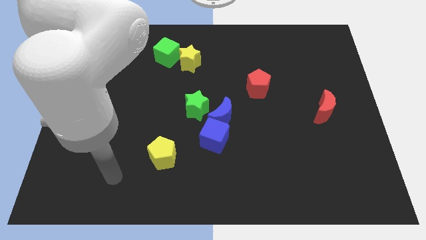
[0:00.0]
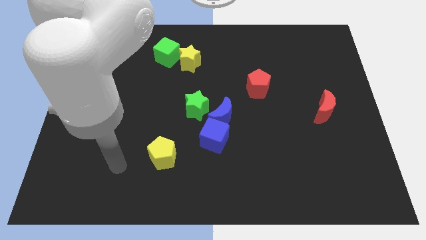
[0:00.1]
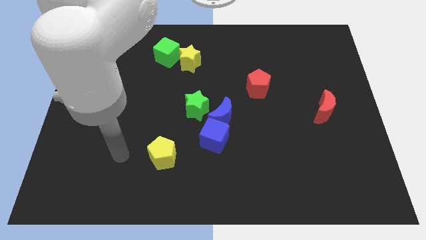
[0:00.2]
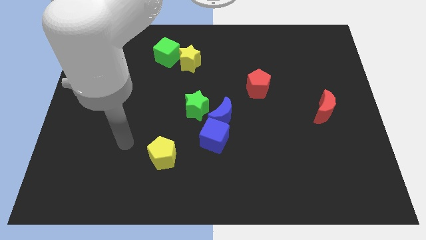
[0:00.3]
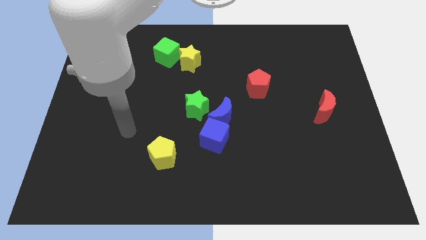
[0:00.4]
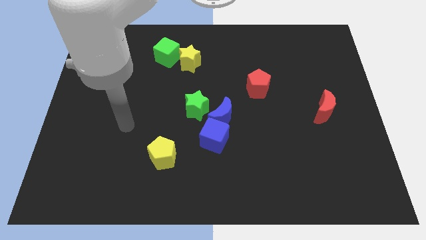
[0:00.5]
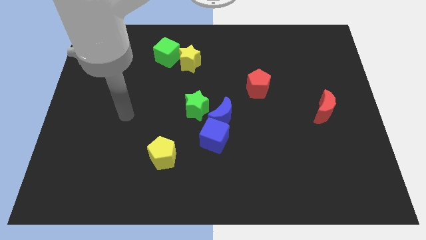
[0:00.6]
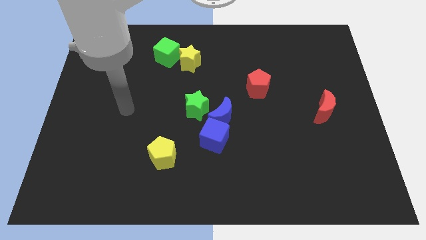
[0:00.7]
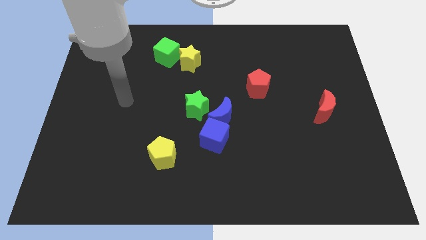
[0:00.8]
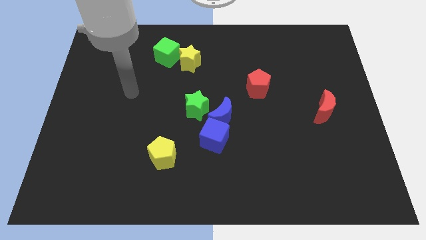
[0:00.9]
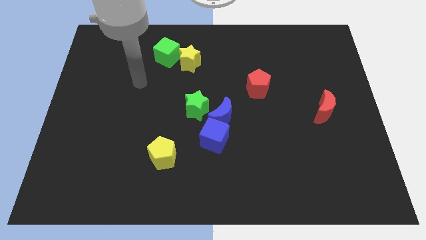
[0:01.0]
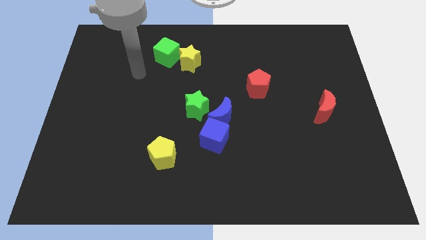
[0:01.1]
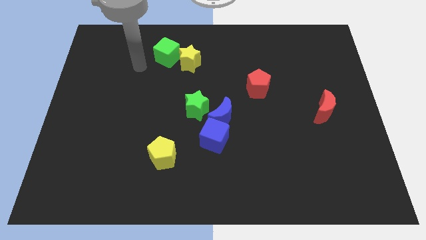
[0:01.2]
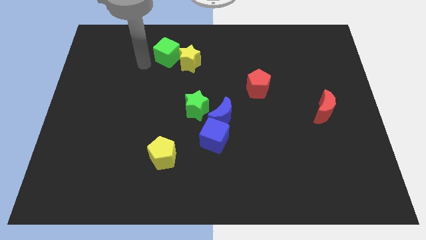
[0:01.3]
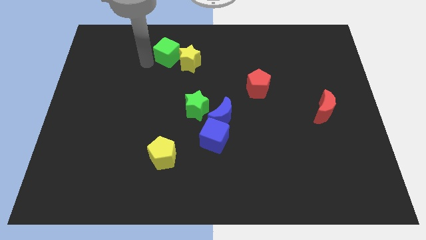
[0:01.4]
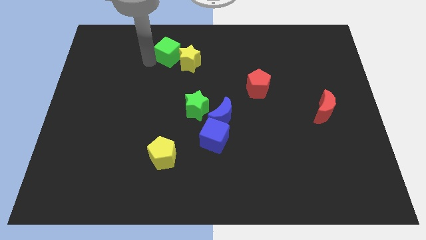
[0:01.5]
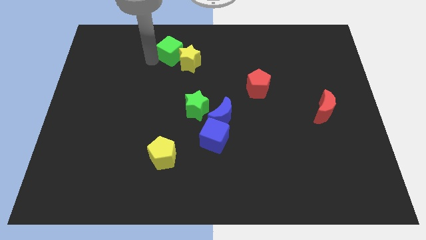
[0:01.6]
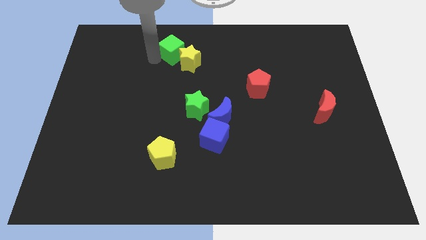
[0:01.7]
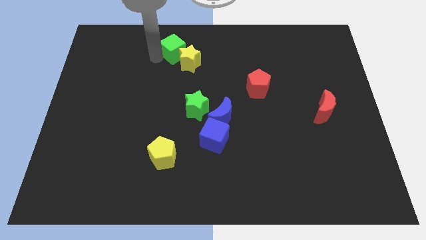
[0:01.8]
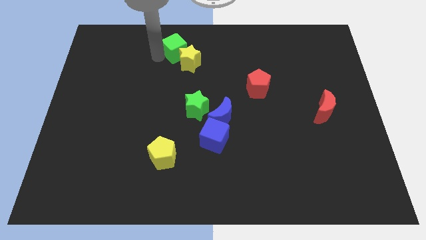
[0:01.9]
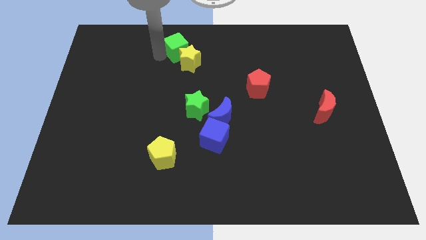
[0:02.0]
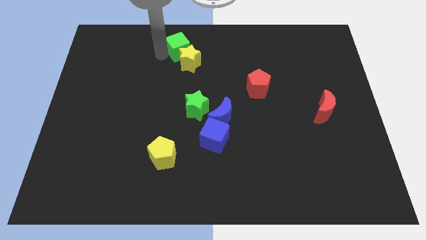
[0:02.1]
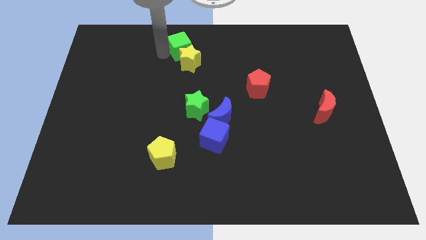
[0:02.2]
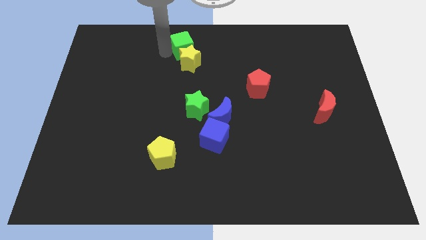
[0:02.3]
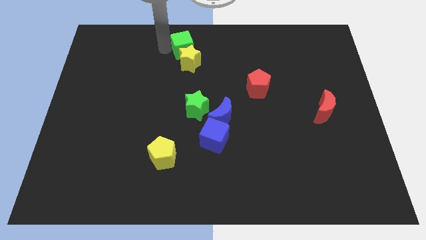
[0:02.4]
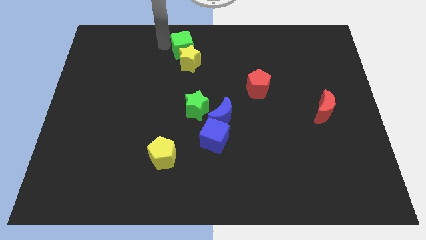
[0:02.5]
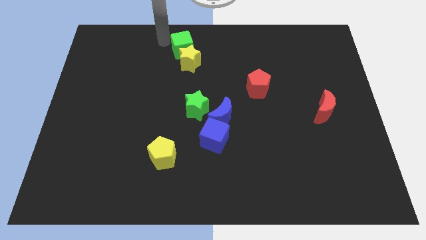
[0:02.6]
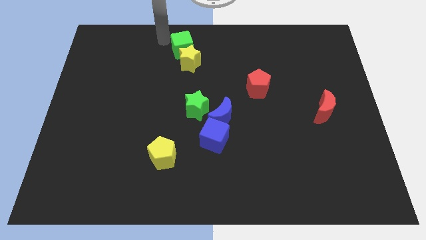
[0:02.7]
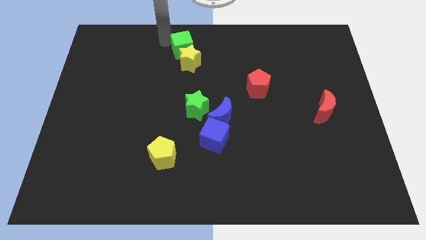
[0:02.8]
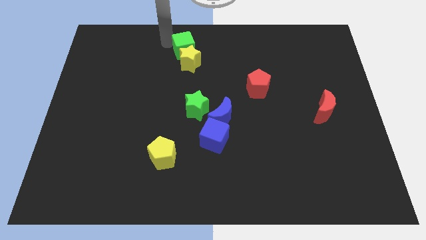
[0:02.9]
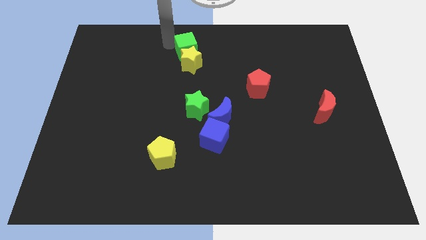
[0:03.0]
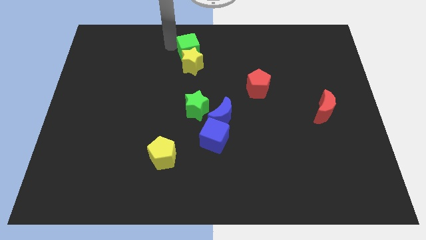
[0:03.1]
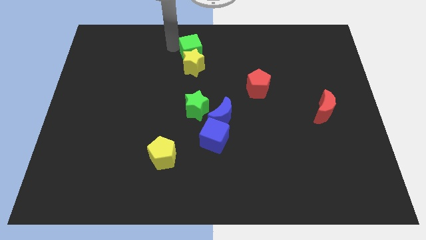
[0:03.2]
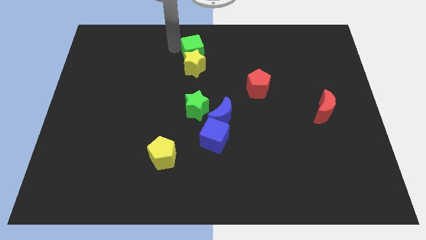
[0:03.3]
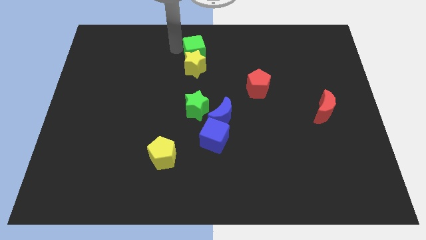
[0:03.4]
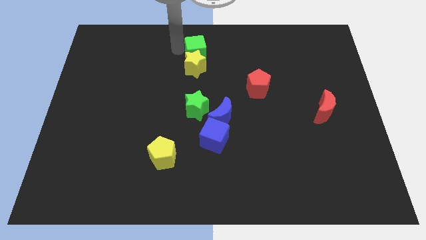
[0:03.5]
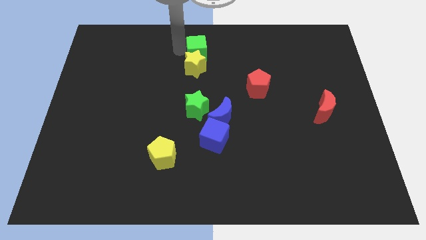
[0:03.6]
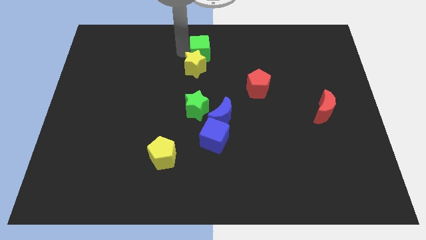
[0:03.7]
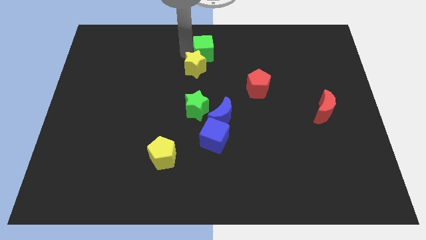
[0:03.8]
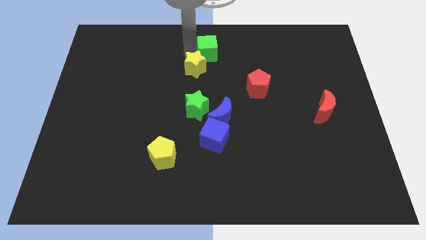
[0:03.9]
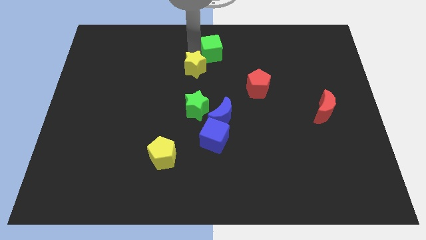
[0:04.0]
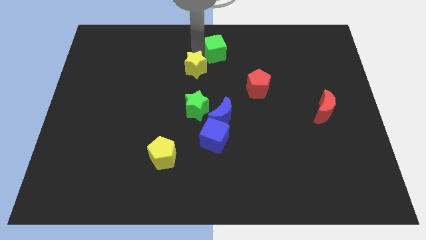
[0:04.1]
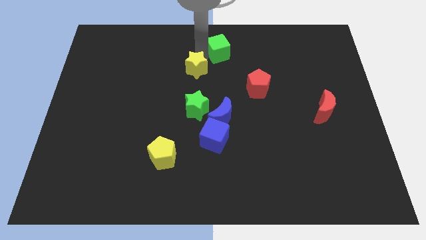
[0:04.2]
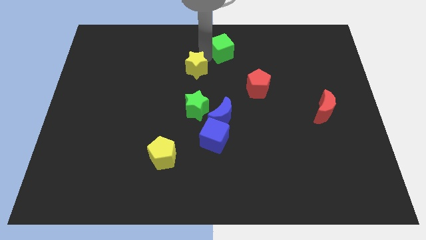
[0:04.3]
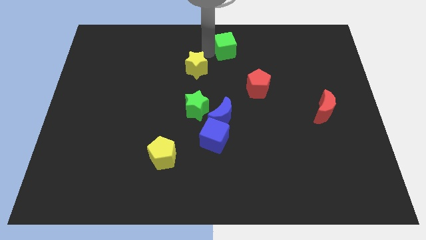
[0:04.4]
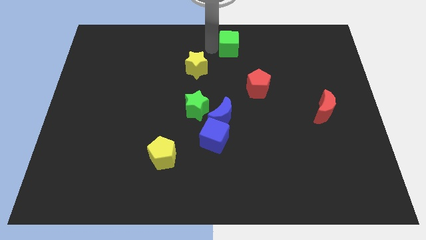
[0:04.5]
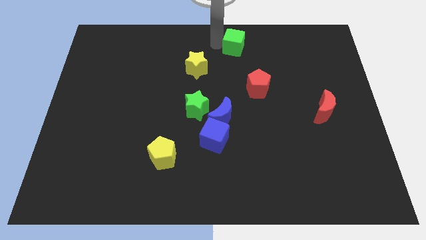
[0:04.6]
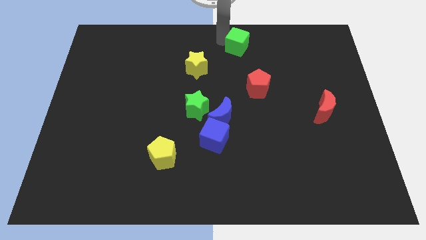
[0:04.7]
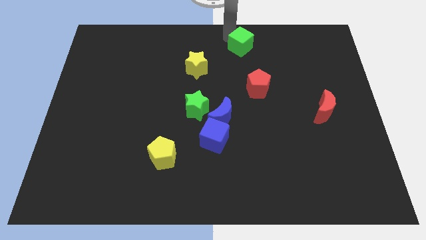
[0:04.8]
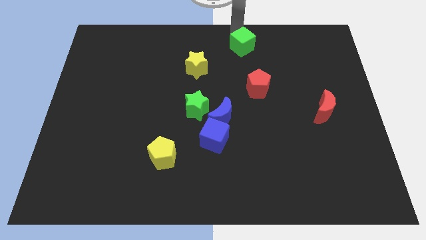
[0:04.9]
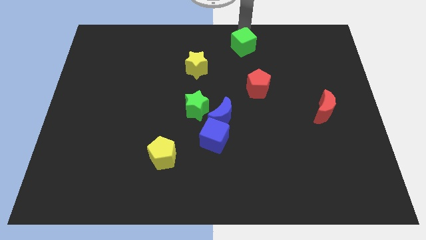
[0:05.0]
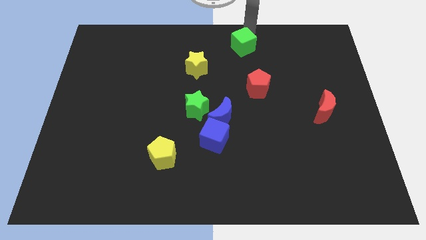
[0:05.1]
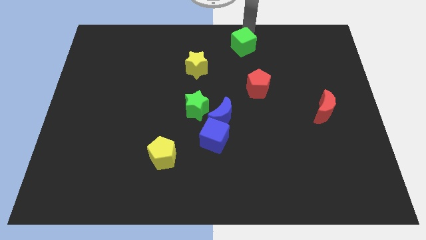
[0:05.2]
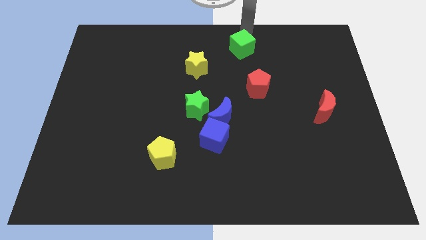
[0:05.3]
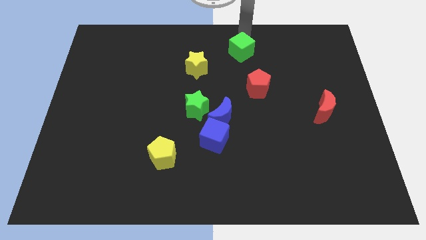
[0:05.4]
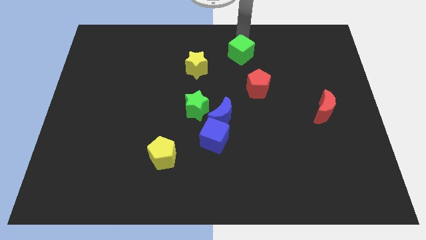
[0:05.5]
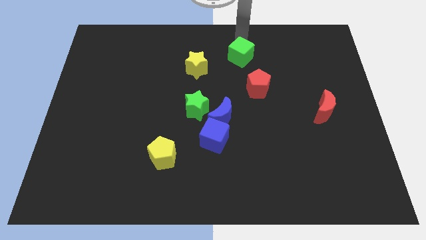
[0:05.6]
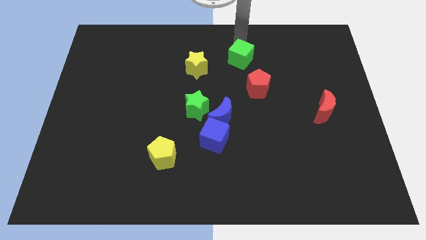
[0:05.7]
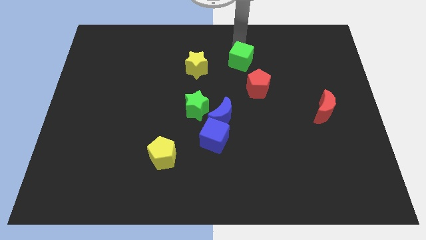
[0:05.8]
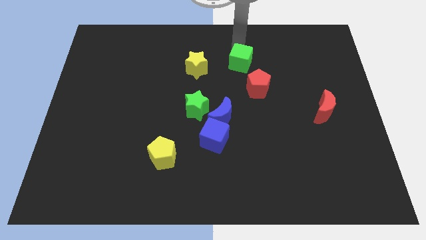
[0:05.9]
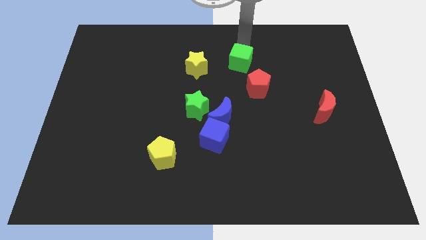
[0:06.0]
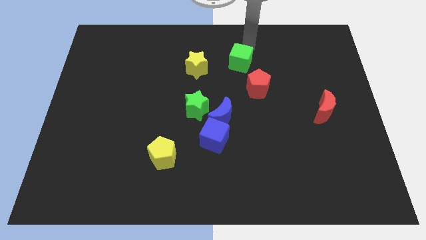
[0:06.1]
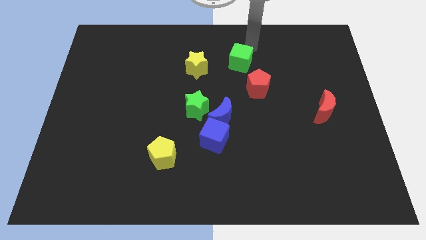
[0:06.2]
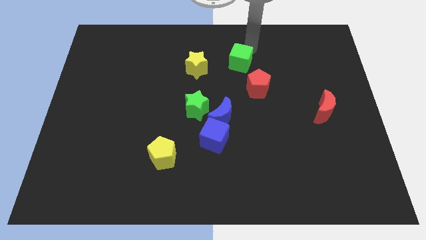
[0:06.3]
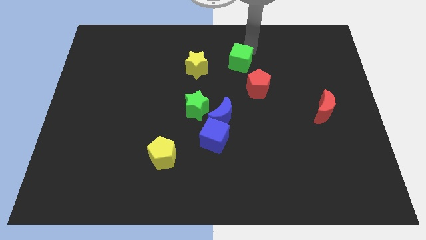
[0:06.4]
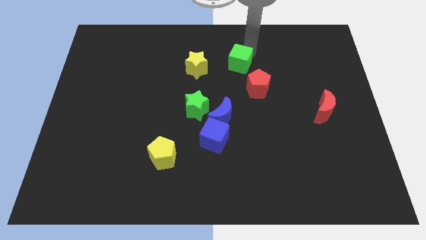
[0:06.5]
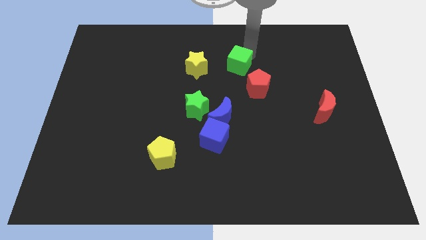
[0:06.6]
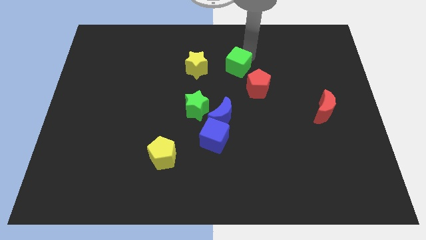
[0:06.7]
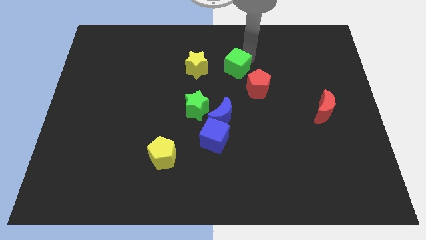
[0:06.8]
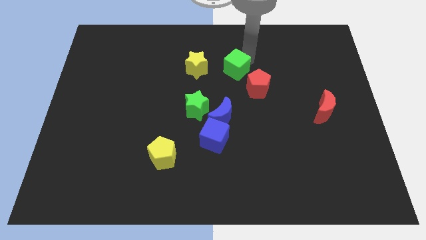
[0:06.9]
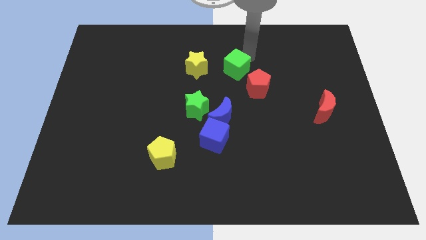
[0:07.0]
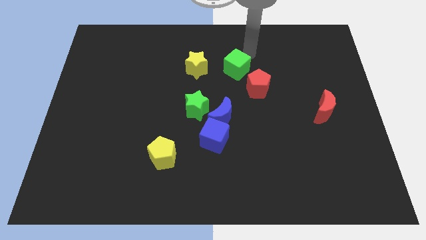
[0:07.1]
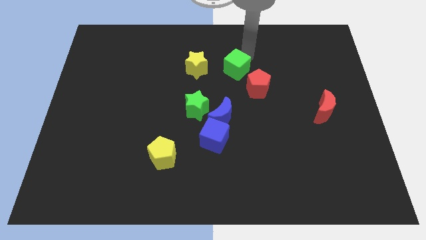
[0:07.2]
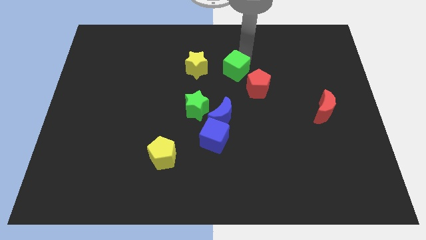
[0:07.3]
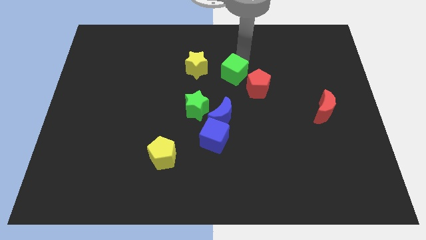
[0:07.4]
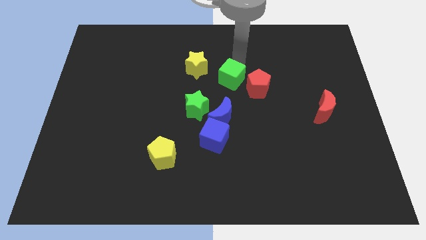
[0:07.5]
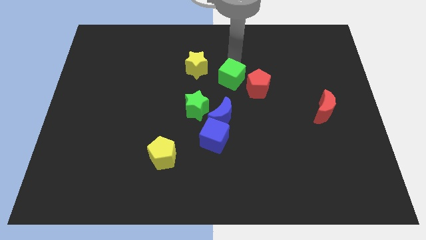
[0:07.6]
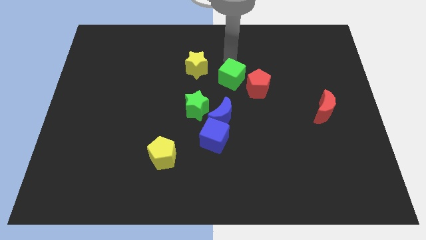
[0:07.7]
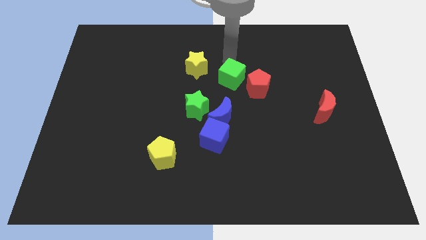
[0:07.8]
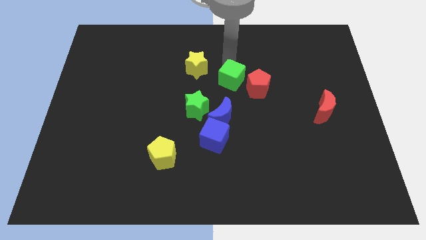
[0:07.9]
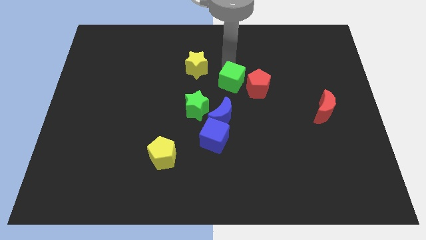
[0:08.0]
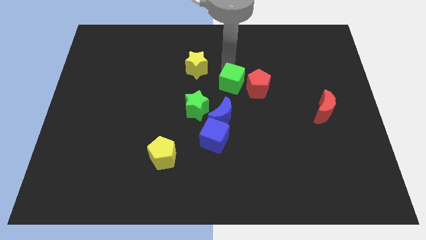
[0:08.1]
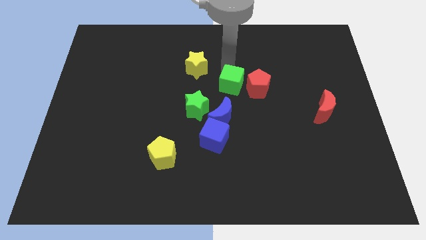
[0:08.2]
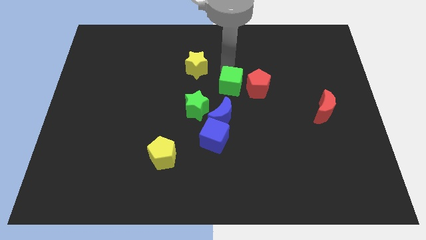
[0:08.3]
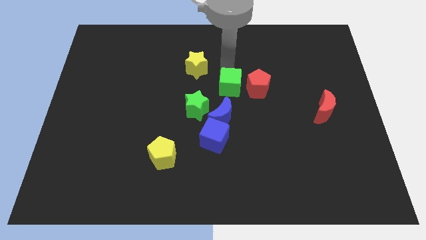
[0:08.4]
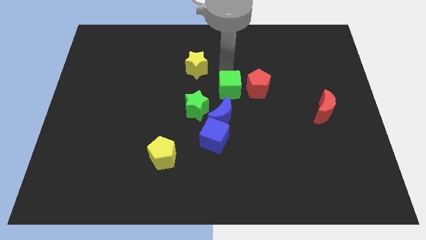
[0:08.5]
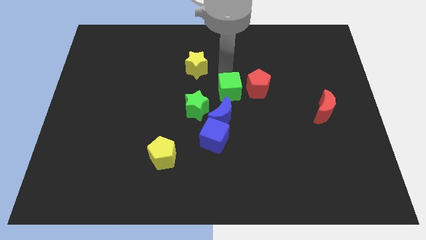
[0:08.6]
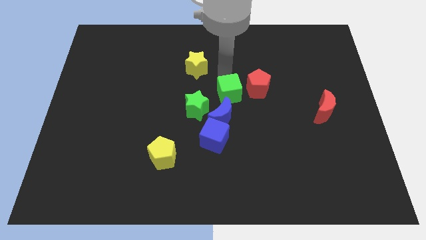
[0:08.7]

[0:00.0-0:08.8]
move the green cube diagonally downwards and right
